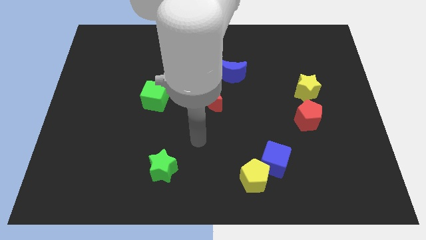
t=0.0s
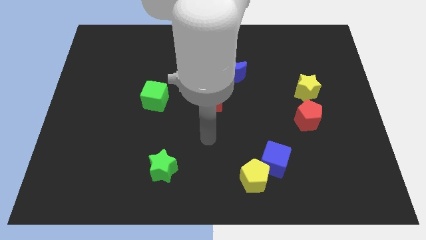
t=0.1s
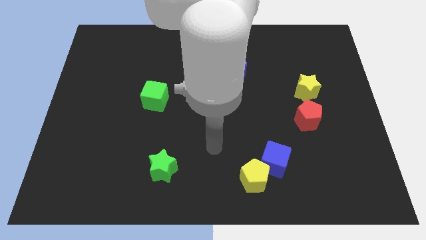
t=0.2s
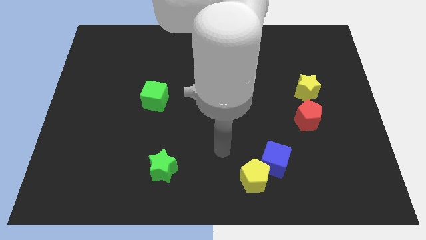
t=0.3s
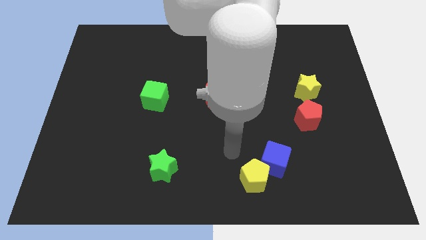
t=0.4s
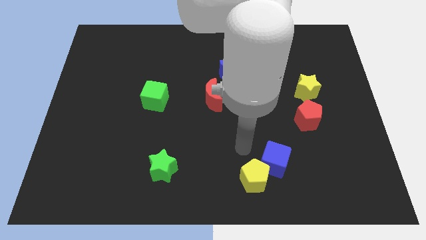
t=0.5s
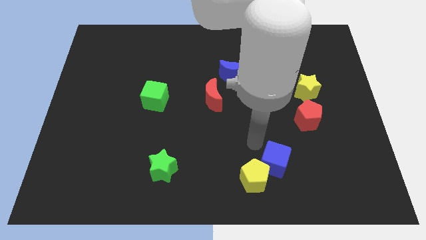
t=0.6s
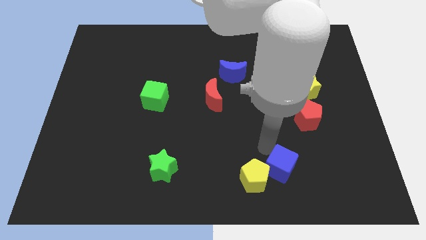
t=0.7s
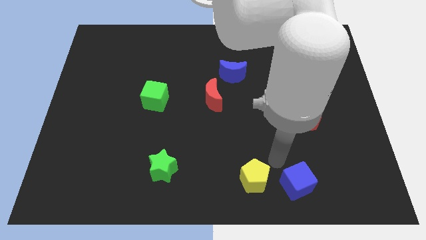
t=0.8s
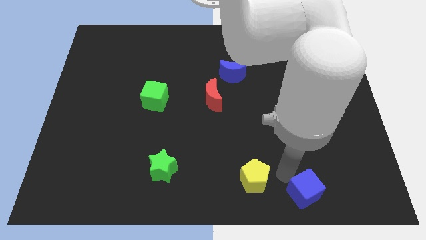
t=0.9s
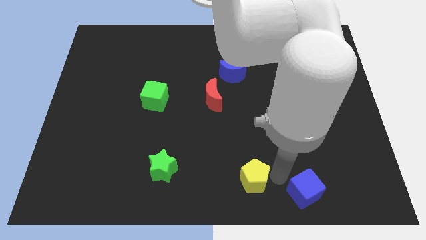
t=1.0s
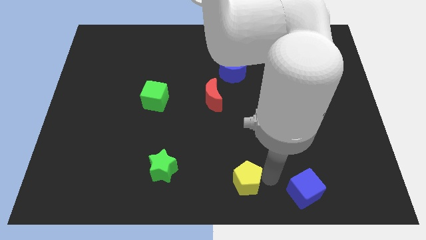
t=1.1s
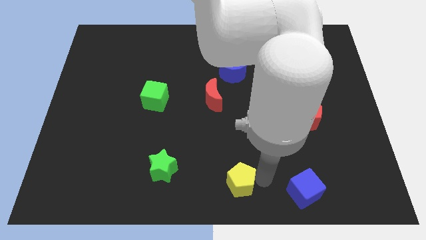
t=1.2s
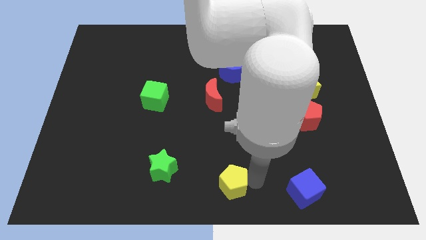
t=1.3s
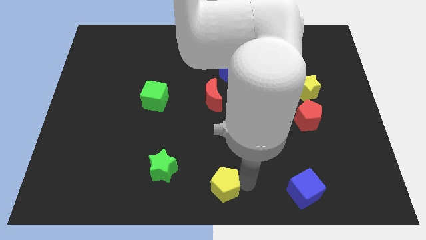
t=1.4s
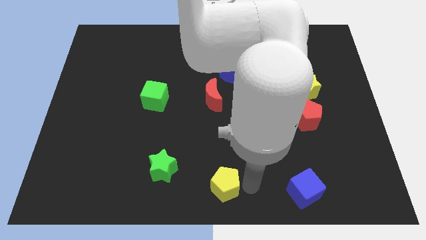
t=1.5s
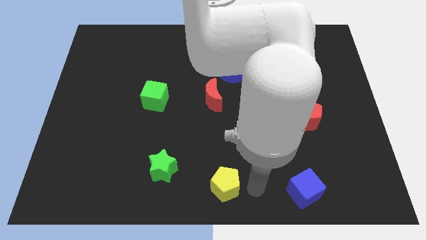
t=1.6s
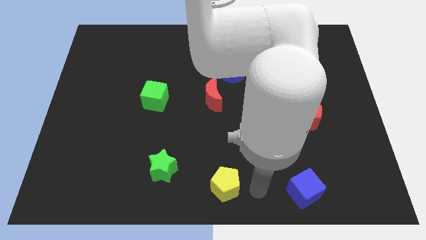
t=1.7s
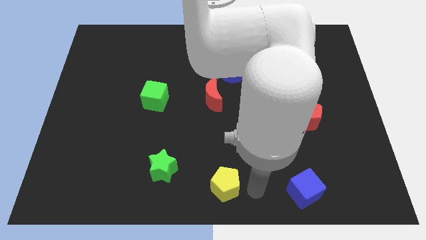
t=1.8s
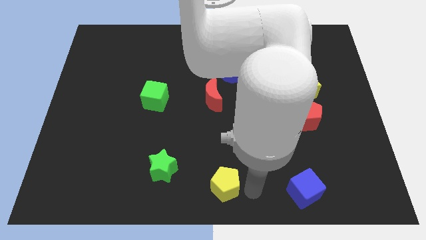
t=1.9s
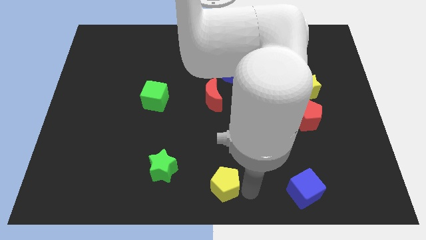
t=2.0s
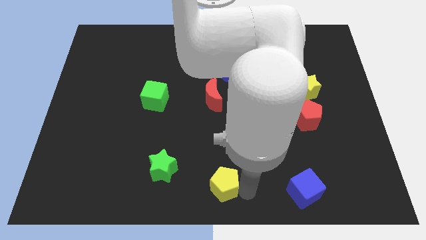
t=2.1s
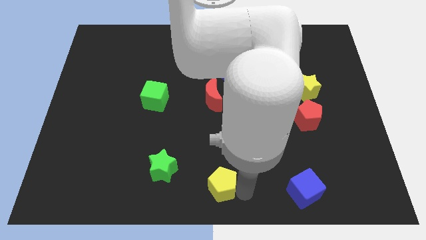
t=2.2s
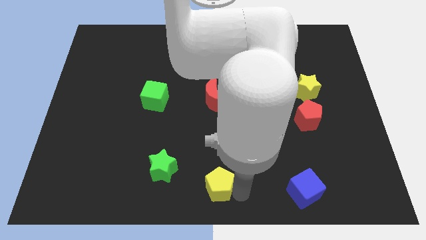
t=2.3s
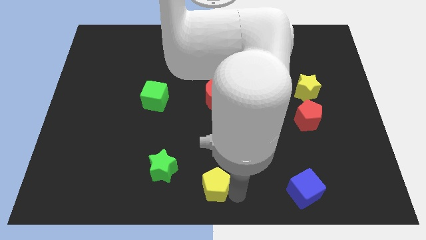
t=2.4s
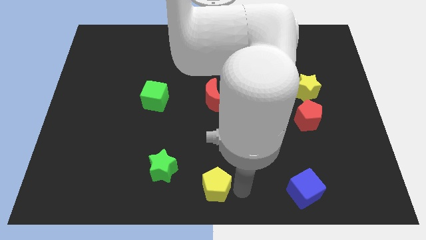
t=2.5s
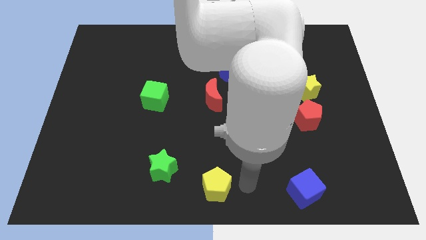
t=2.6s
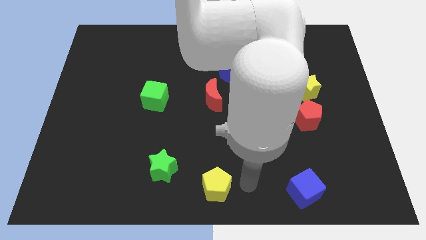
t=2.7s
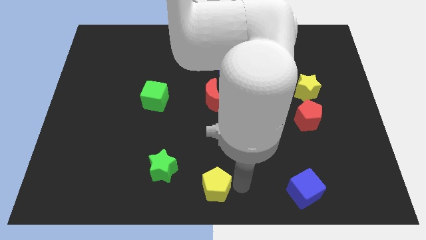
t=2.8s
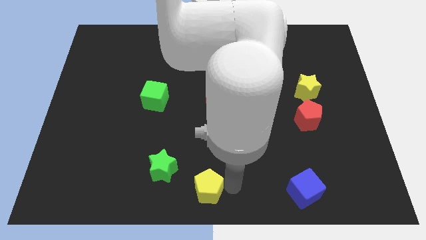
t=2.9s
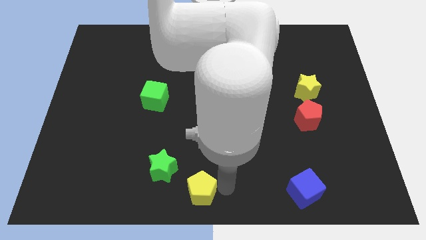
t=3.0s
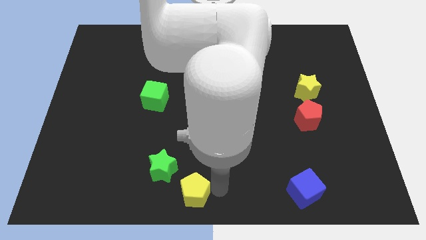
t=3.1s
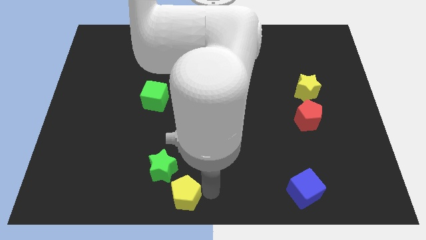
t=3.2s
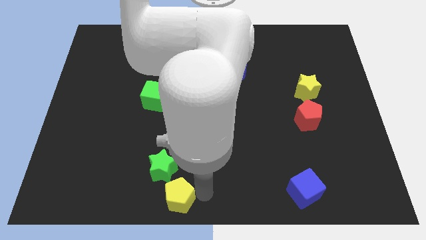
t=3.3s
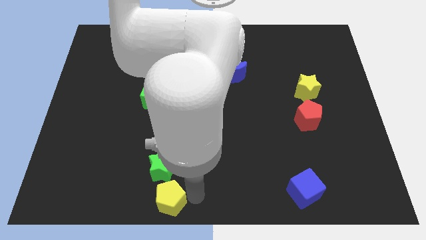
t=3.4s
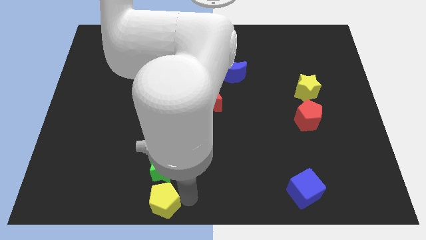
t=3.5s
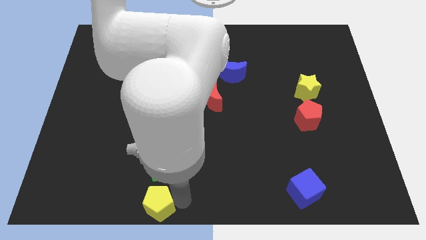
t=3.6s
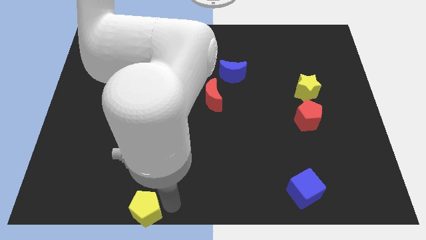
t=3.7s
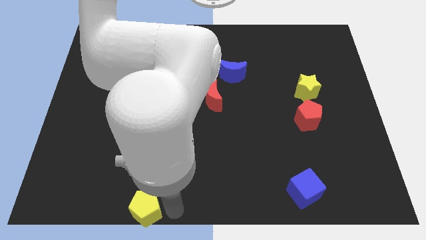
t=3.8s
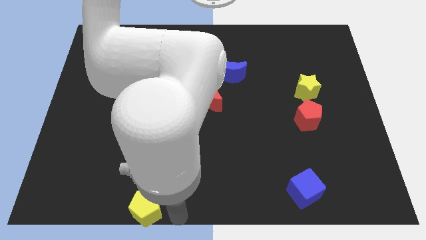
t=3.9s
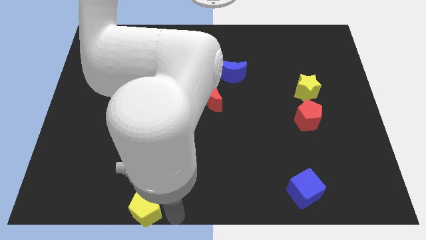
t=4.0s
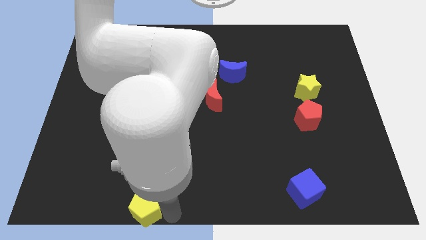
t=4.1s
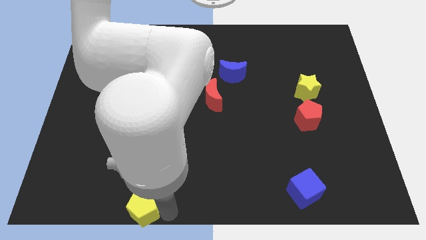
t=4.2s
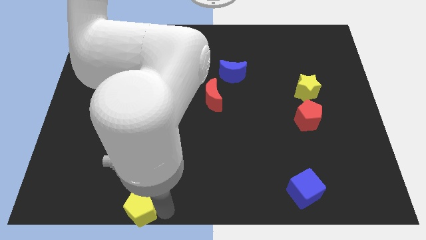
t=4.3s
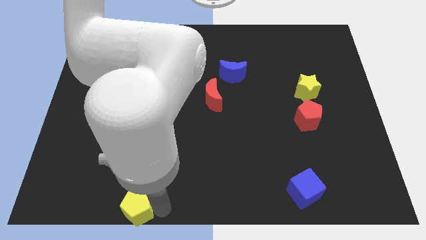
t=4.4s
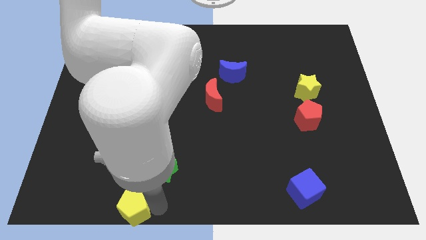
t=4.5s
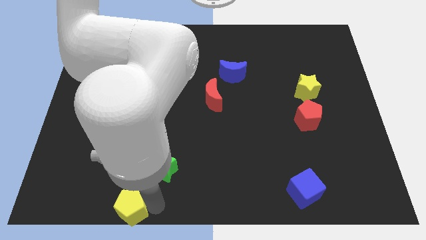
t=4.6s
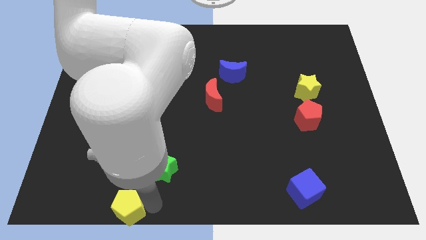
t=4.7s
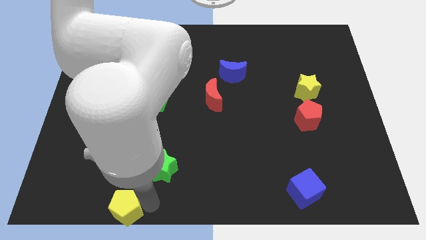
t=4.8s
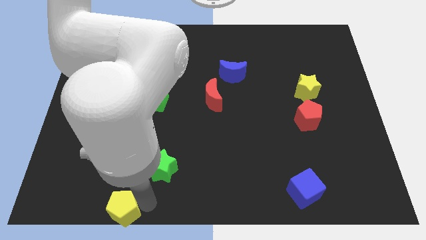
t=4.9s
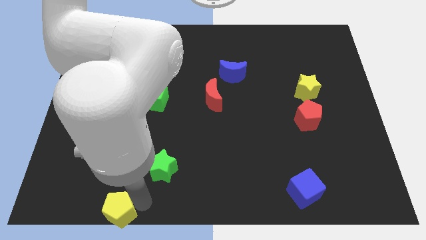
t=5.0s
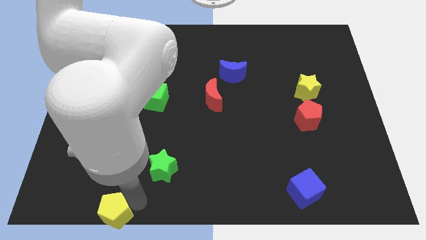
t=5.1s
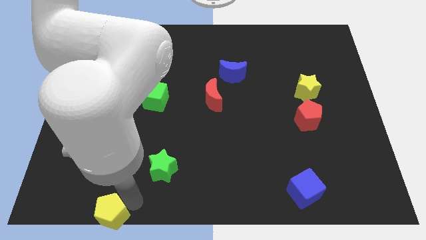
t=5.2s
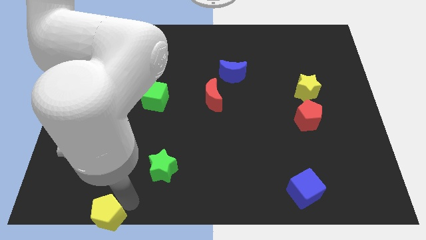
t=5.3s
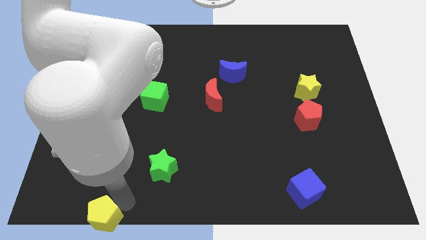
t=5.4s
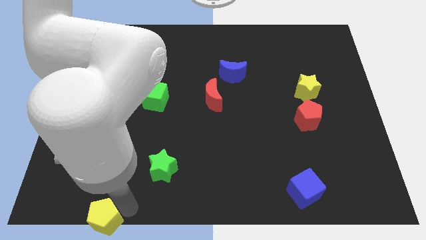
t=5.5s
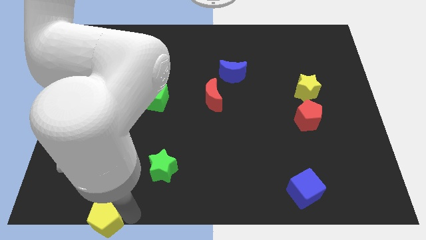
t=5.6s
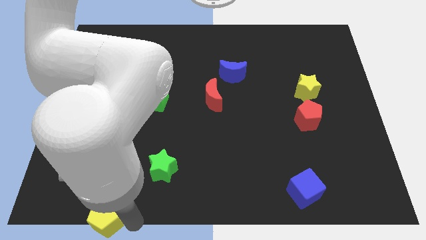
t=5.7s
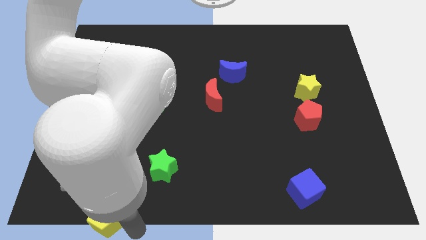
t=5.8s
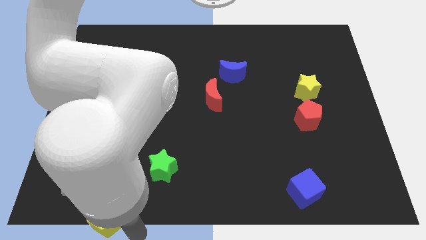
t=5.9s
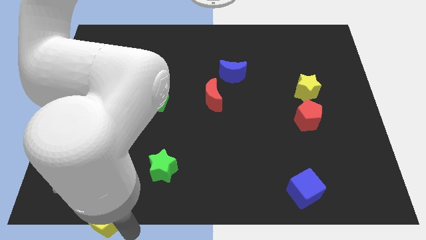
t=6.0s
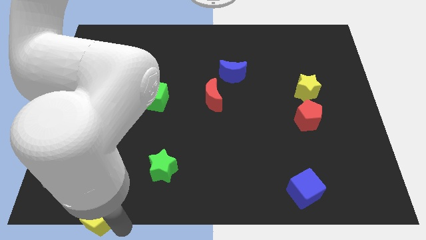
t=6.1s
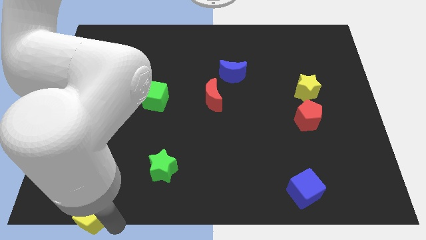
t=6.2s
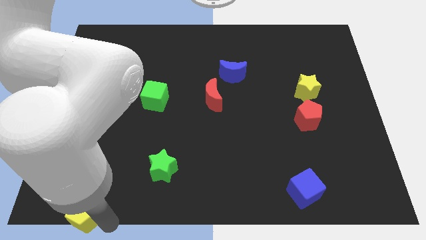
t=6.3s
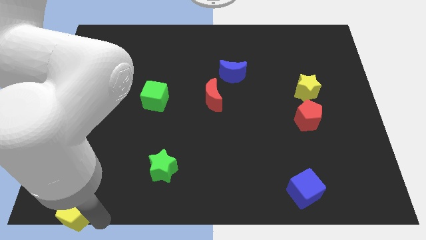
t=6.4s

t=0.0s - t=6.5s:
put the yellow pentagon to the bottom left of the board
